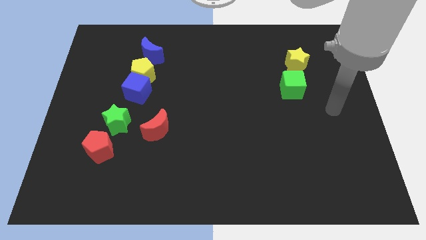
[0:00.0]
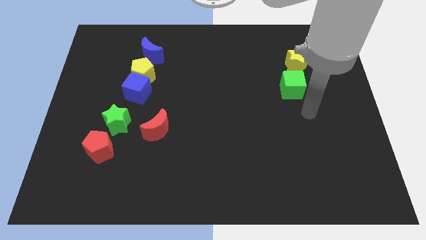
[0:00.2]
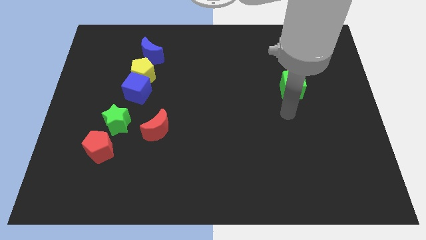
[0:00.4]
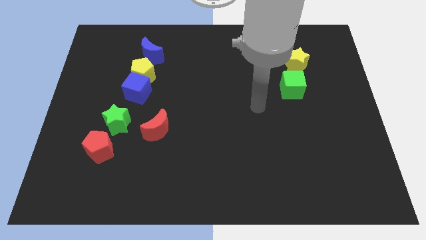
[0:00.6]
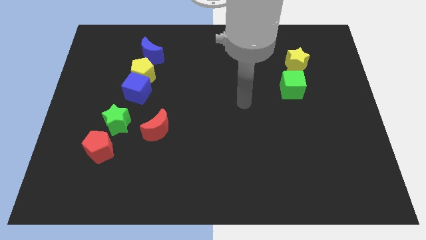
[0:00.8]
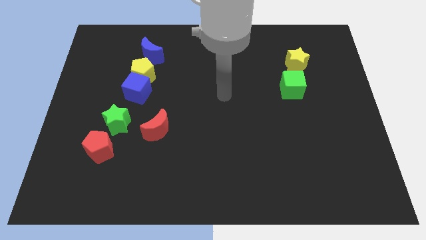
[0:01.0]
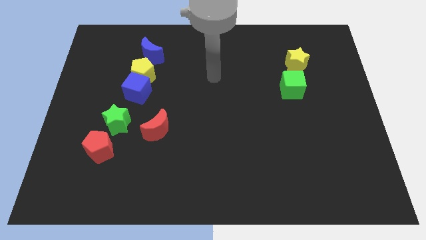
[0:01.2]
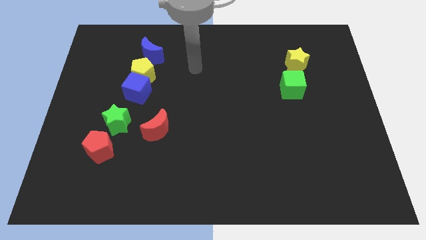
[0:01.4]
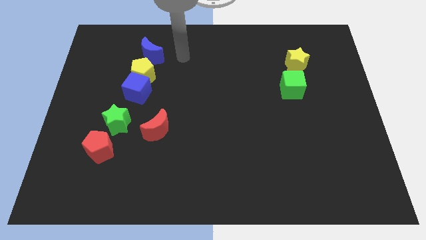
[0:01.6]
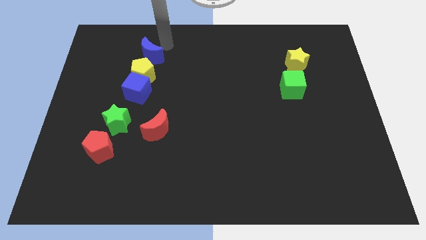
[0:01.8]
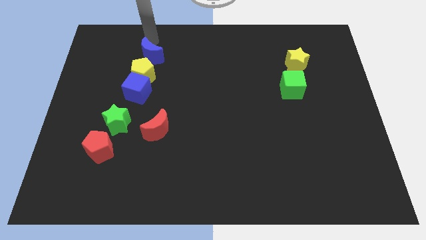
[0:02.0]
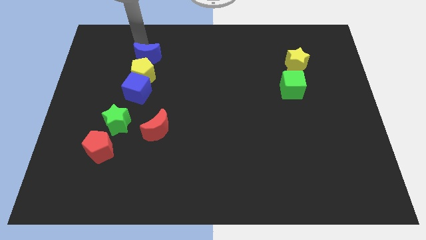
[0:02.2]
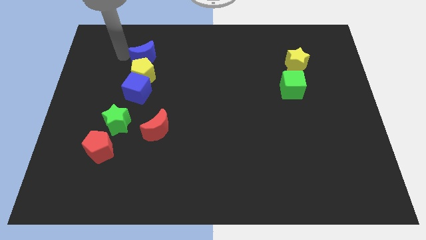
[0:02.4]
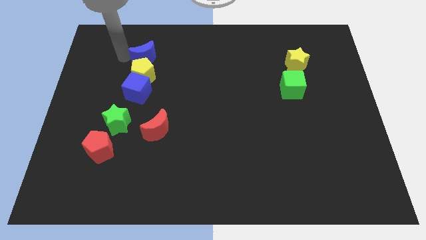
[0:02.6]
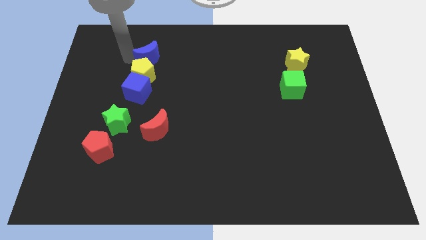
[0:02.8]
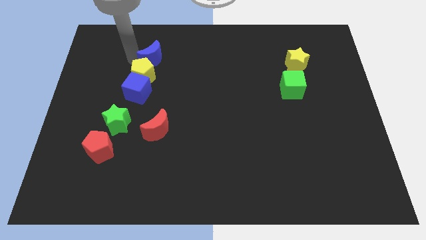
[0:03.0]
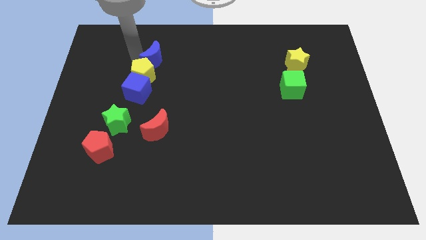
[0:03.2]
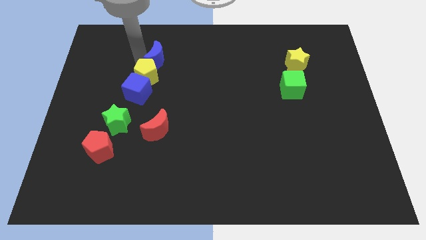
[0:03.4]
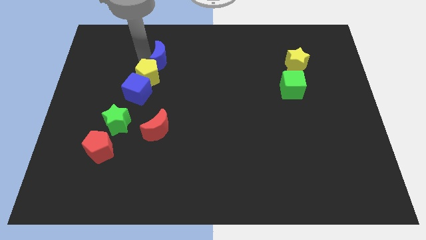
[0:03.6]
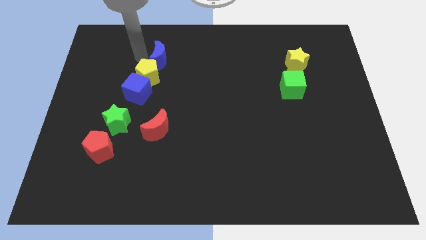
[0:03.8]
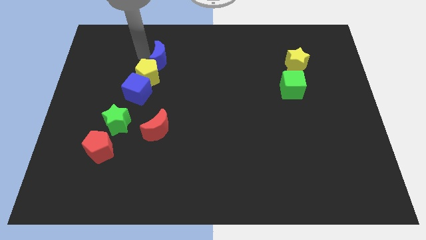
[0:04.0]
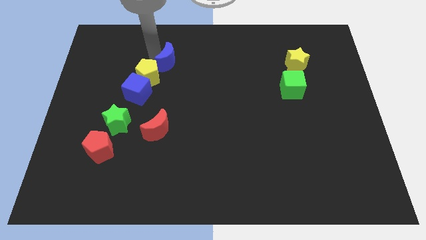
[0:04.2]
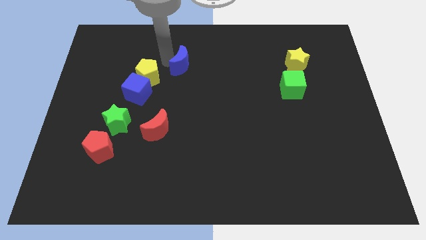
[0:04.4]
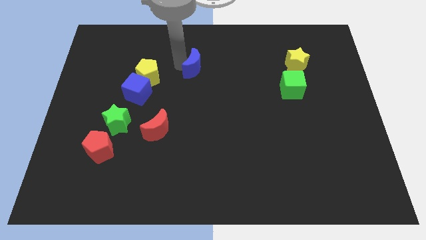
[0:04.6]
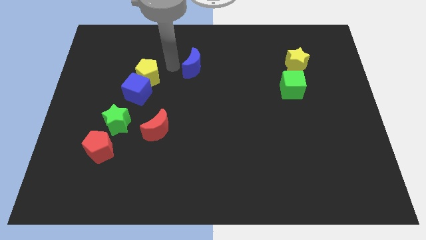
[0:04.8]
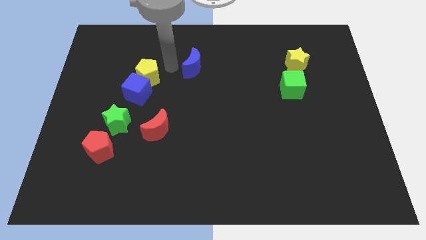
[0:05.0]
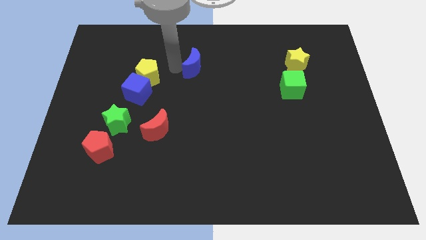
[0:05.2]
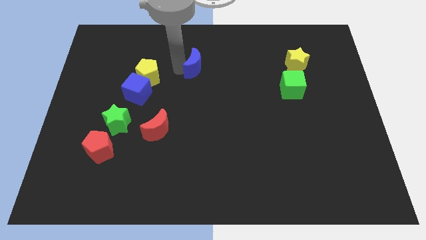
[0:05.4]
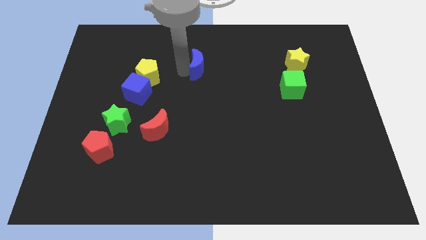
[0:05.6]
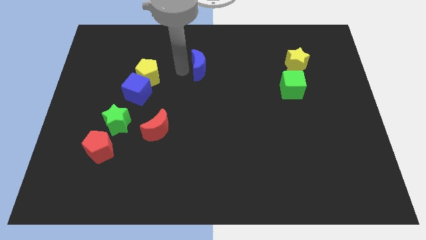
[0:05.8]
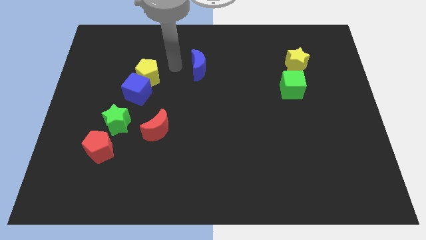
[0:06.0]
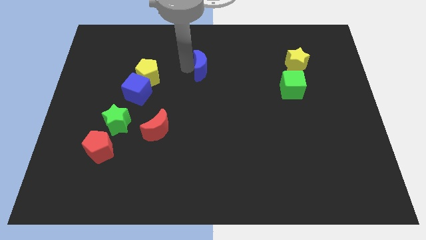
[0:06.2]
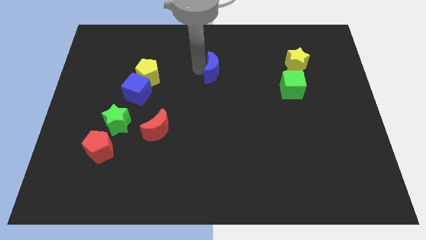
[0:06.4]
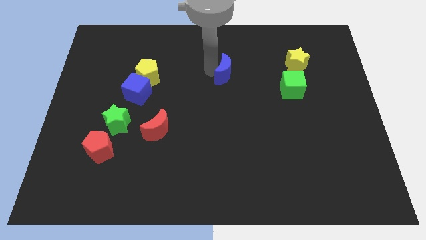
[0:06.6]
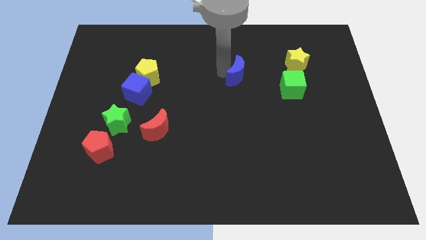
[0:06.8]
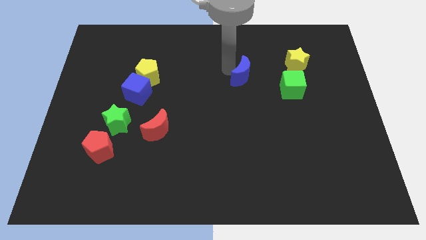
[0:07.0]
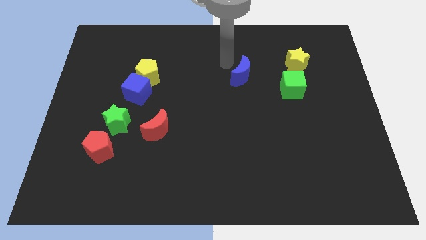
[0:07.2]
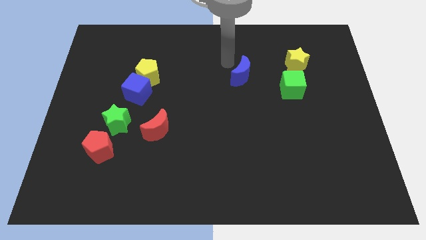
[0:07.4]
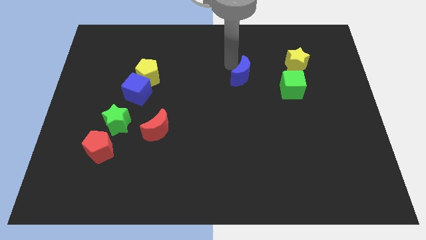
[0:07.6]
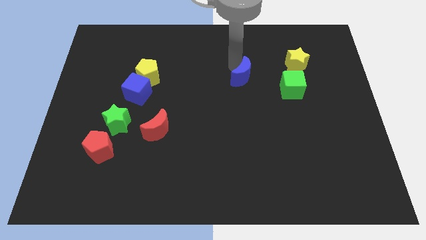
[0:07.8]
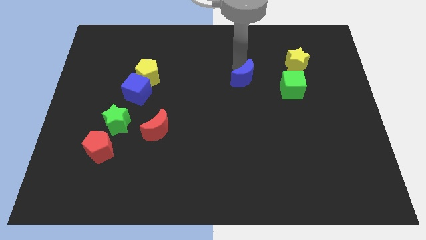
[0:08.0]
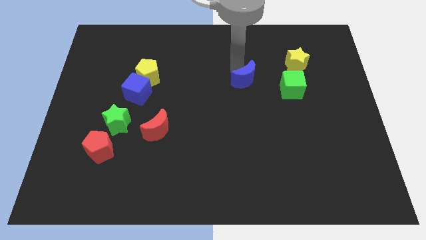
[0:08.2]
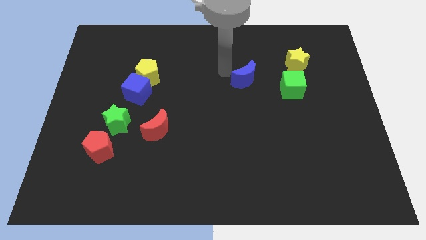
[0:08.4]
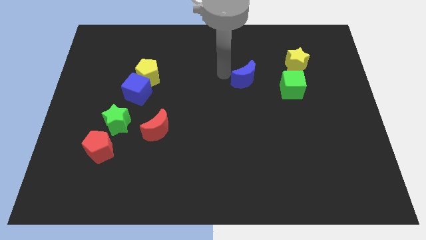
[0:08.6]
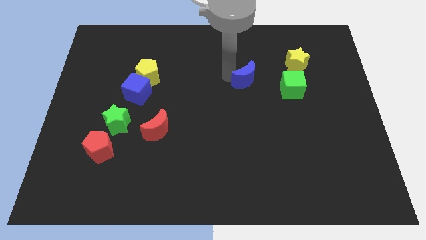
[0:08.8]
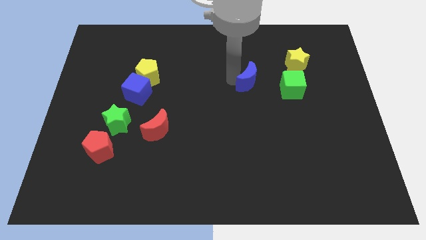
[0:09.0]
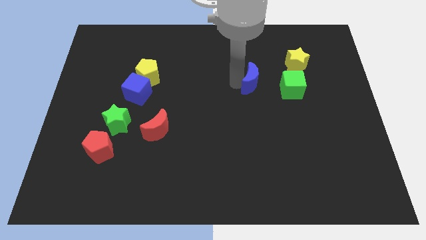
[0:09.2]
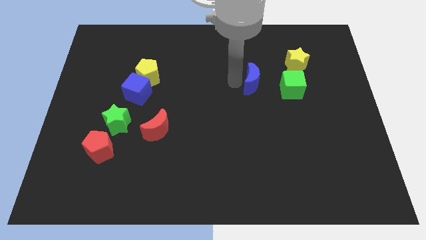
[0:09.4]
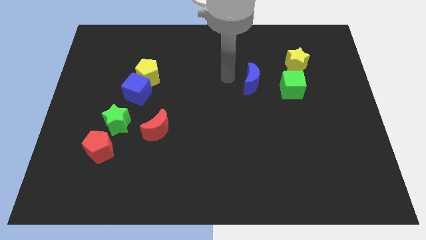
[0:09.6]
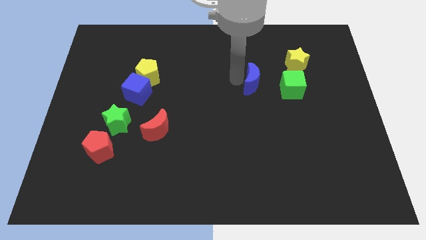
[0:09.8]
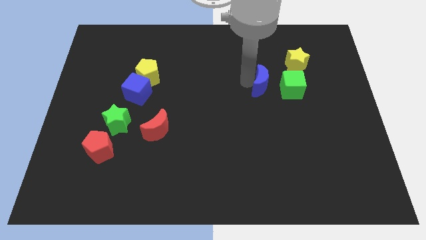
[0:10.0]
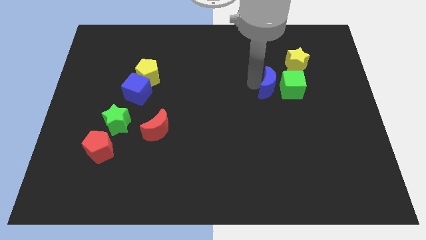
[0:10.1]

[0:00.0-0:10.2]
put the blue moon towards the green cube

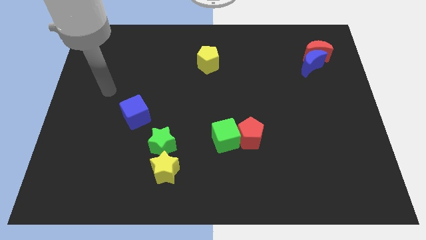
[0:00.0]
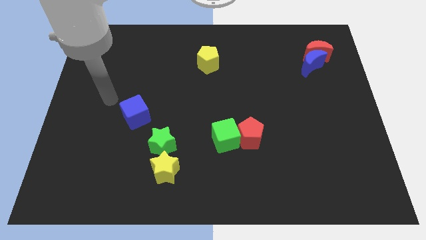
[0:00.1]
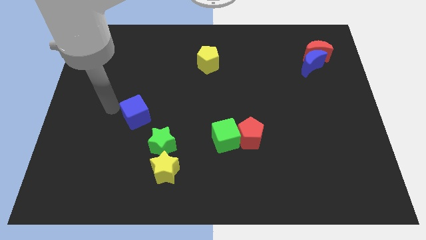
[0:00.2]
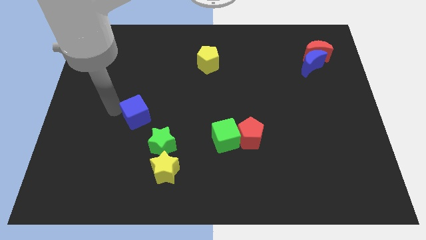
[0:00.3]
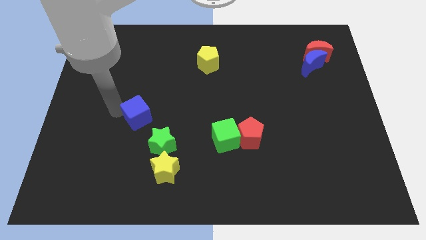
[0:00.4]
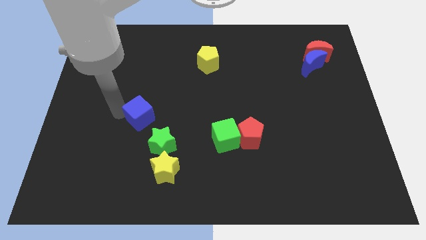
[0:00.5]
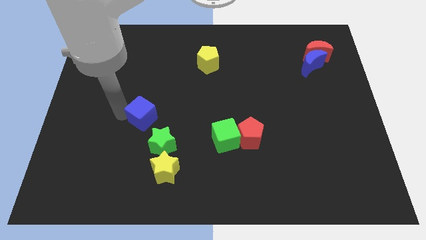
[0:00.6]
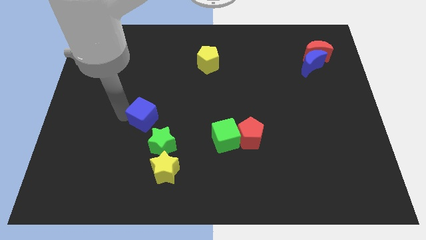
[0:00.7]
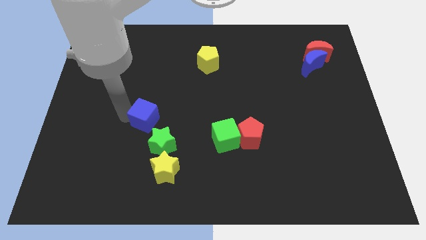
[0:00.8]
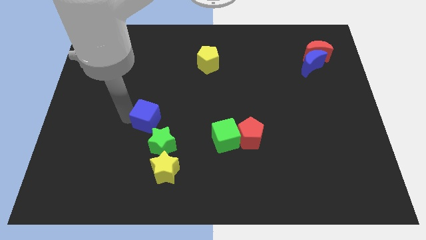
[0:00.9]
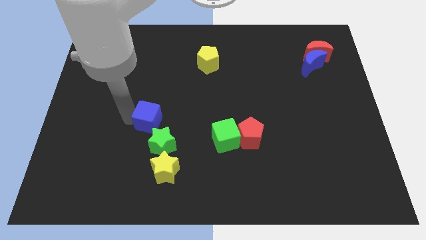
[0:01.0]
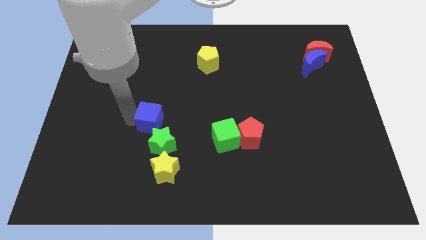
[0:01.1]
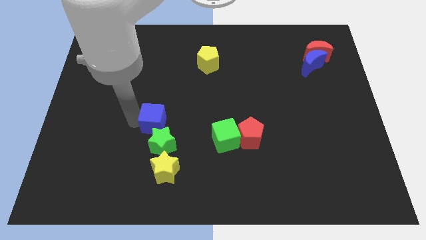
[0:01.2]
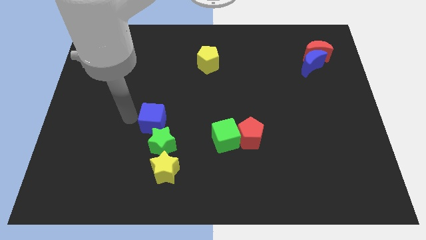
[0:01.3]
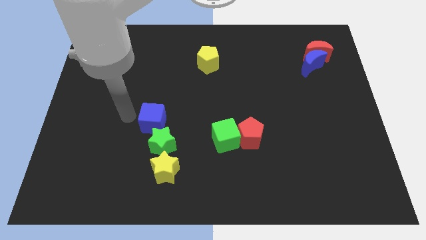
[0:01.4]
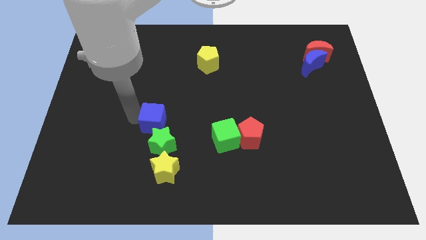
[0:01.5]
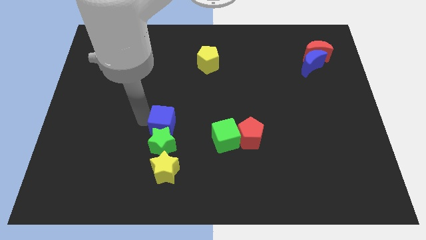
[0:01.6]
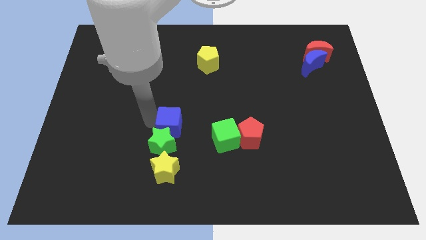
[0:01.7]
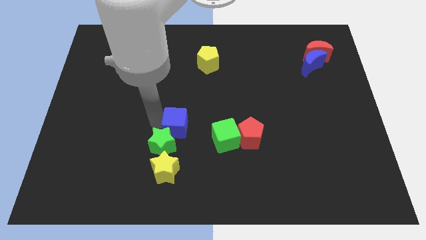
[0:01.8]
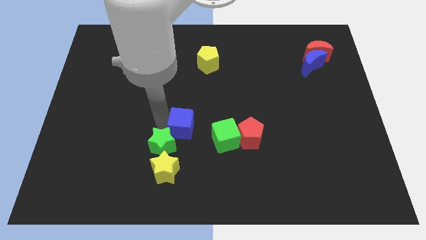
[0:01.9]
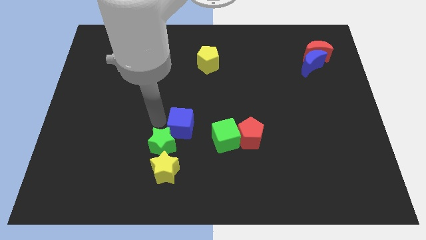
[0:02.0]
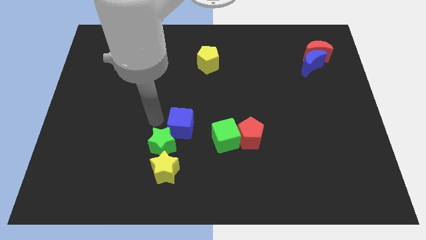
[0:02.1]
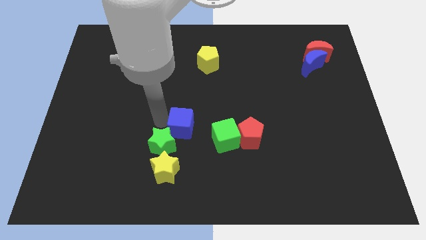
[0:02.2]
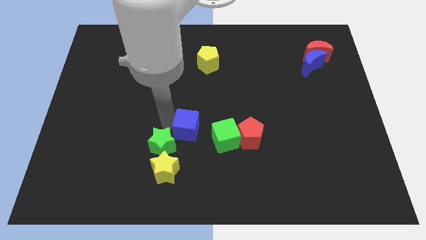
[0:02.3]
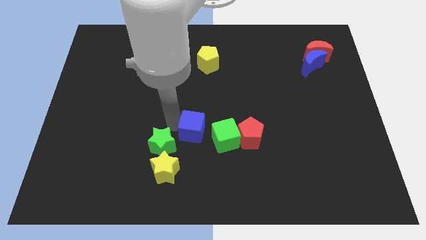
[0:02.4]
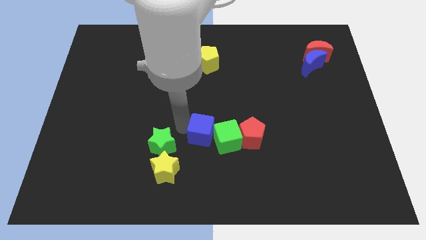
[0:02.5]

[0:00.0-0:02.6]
put the blue cube to the green cube
